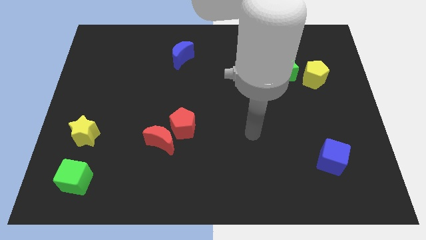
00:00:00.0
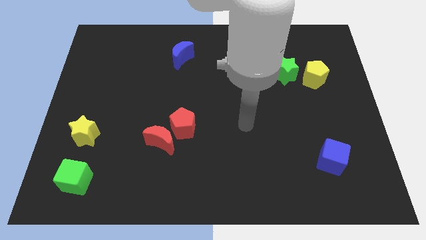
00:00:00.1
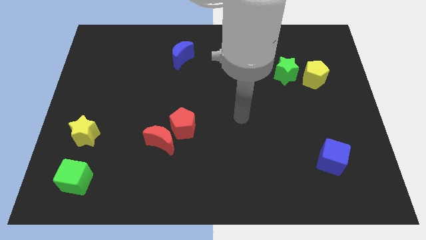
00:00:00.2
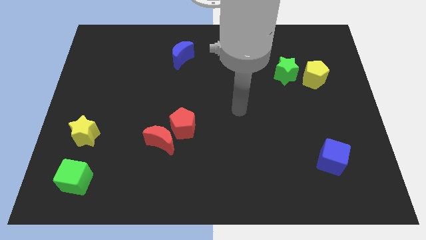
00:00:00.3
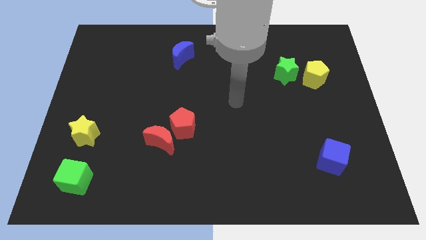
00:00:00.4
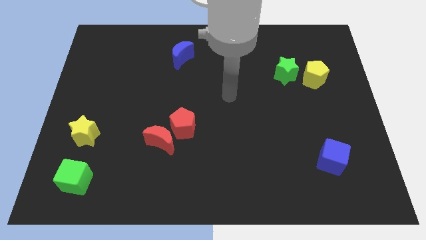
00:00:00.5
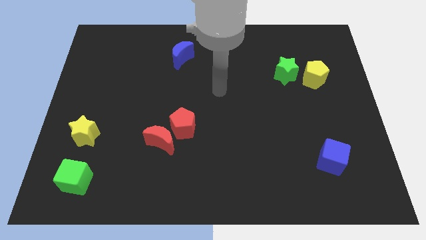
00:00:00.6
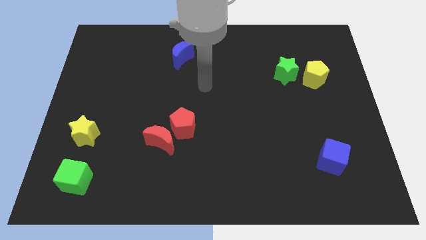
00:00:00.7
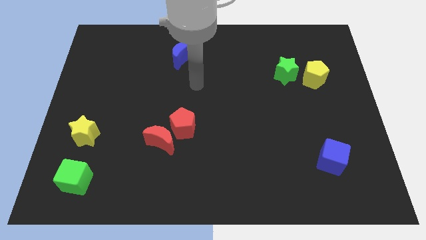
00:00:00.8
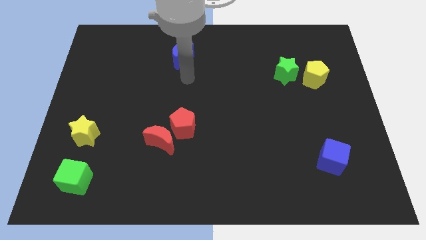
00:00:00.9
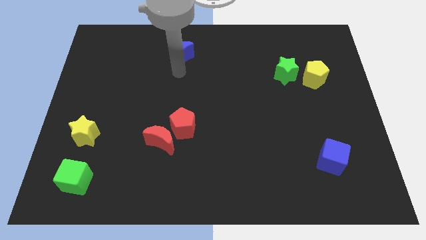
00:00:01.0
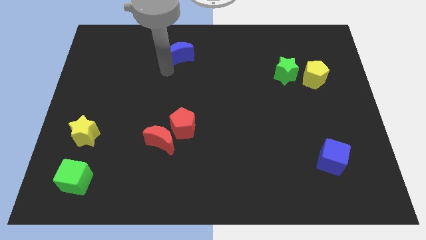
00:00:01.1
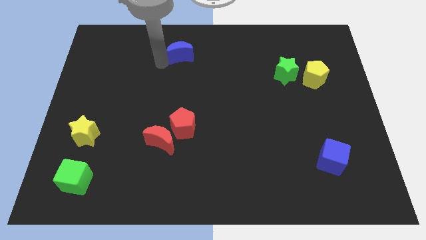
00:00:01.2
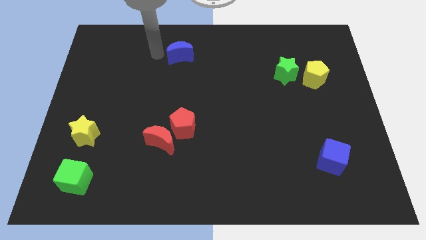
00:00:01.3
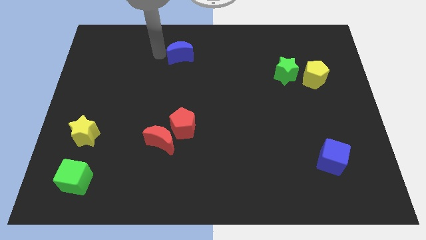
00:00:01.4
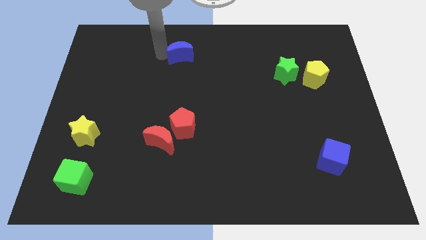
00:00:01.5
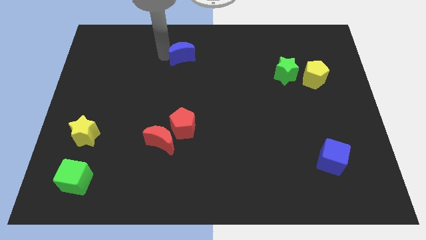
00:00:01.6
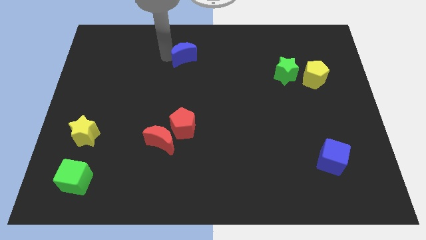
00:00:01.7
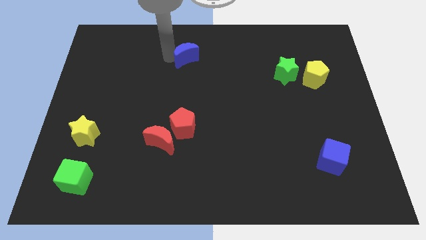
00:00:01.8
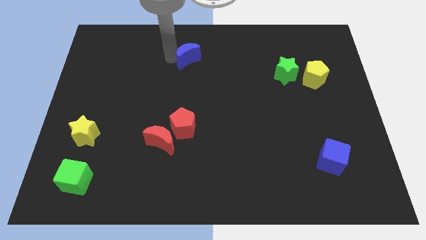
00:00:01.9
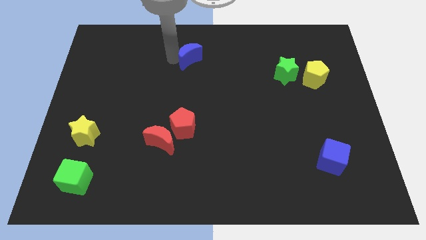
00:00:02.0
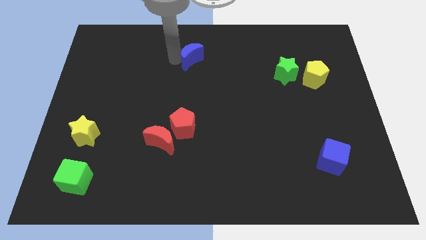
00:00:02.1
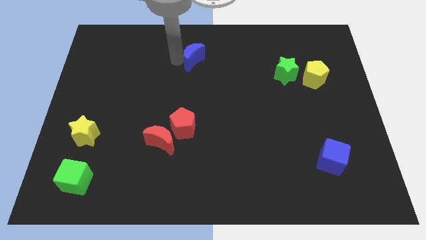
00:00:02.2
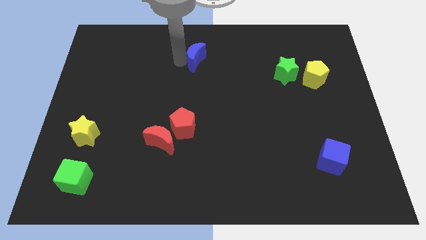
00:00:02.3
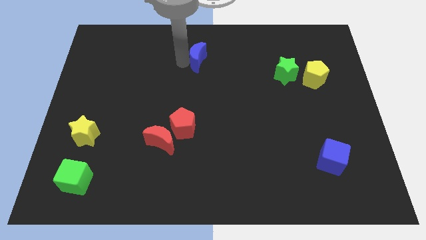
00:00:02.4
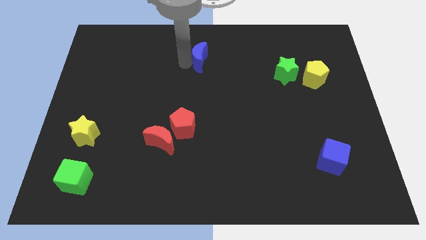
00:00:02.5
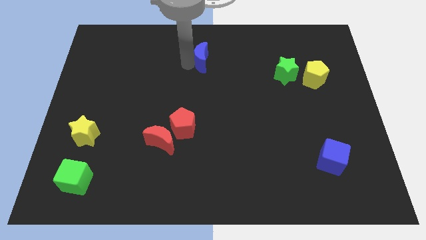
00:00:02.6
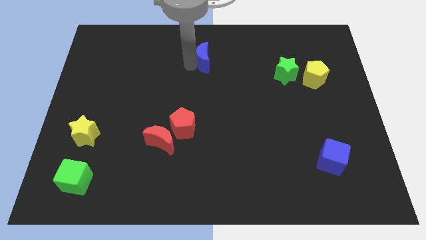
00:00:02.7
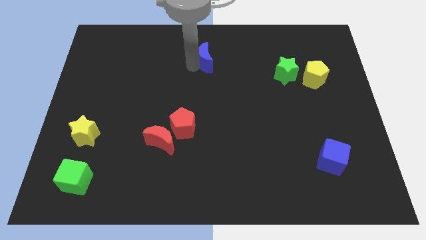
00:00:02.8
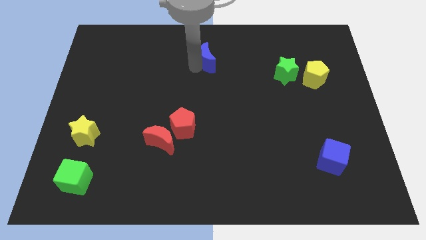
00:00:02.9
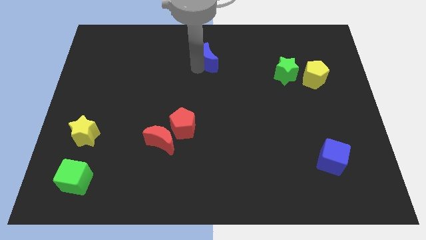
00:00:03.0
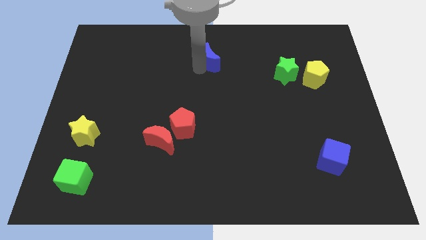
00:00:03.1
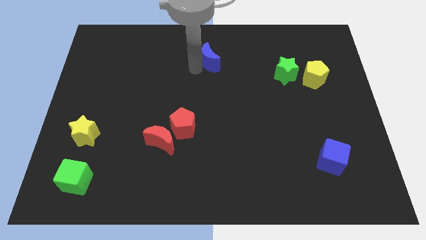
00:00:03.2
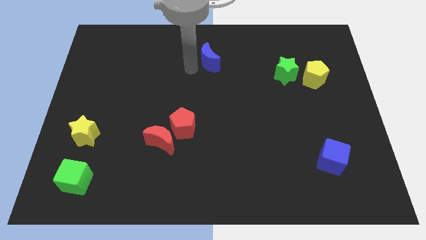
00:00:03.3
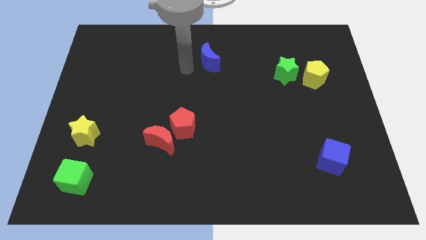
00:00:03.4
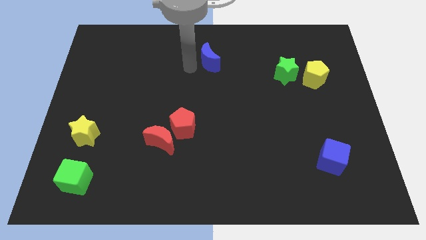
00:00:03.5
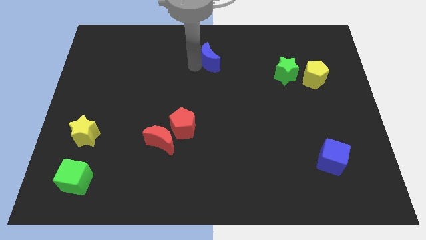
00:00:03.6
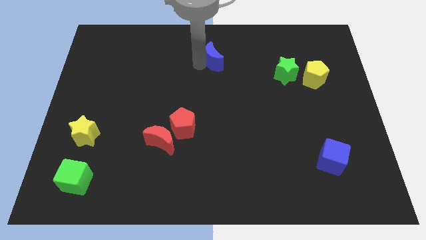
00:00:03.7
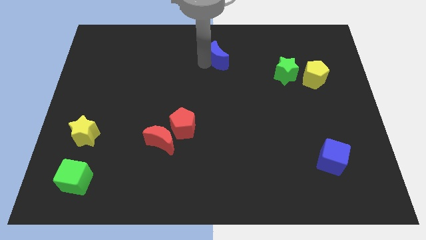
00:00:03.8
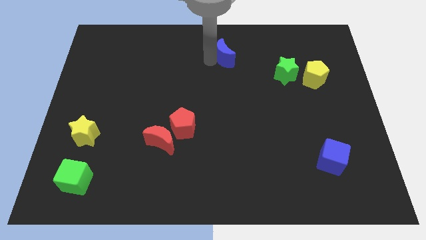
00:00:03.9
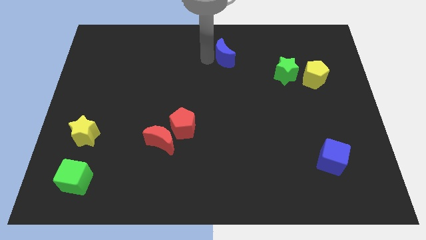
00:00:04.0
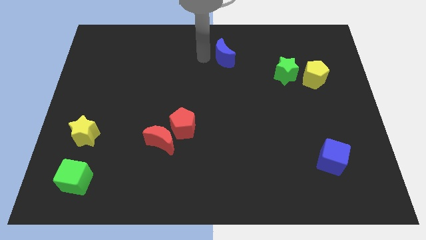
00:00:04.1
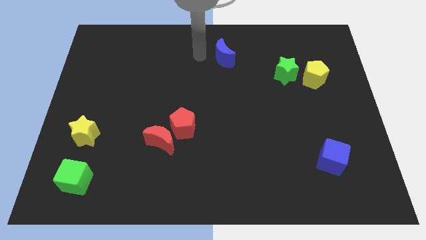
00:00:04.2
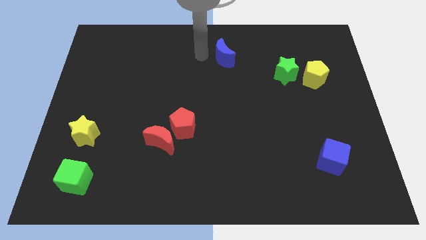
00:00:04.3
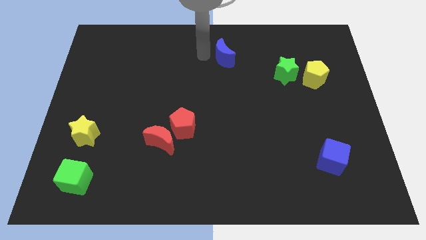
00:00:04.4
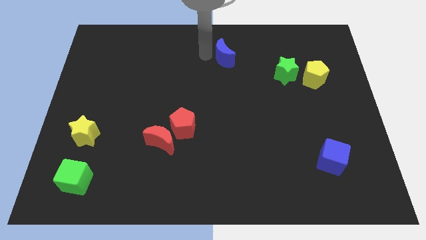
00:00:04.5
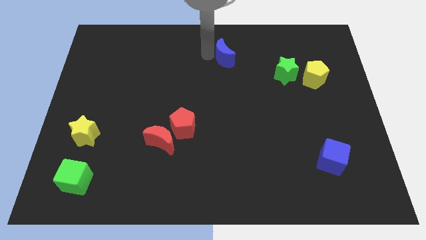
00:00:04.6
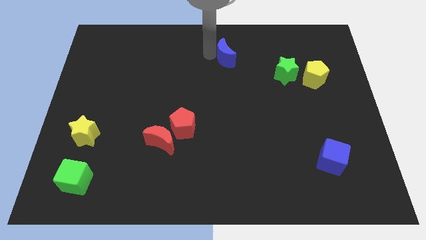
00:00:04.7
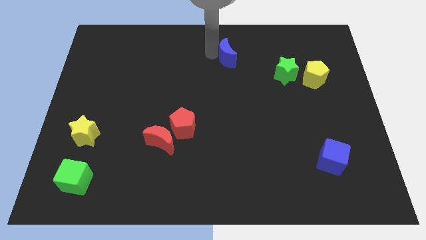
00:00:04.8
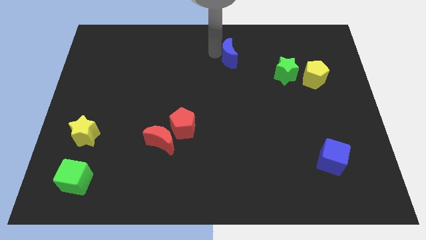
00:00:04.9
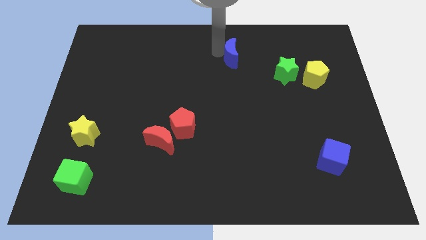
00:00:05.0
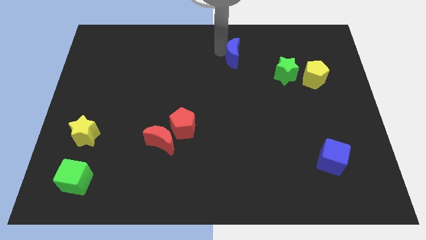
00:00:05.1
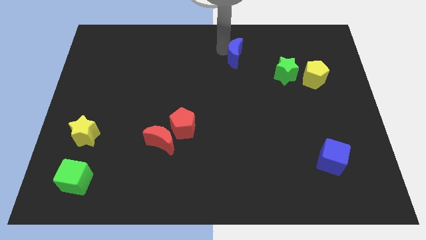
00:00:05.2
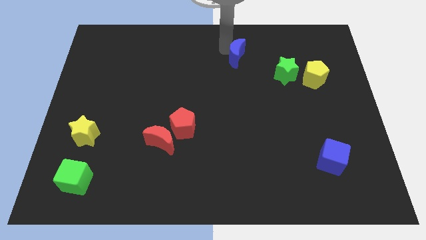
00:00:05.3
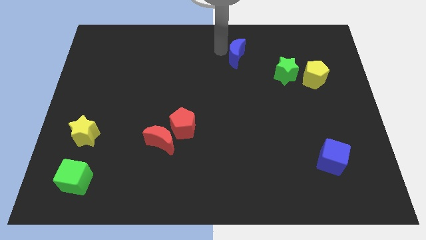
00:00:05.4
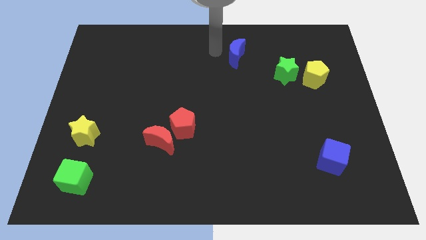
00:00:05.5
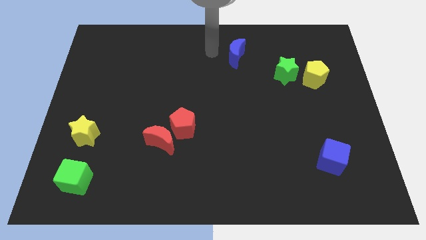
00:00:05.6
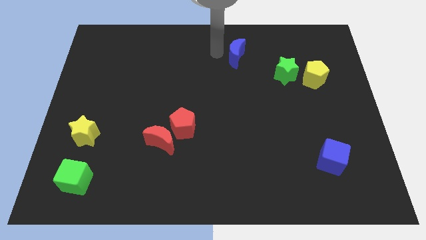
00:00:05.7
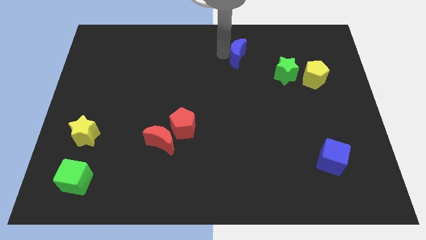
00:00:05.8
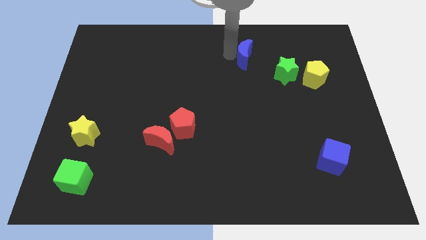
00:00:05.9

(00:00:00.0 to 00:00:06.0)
move the blue moon diagonally up and to the left of the green star

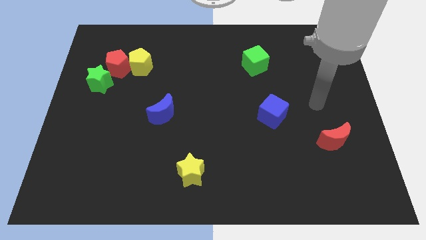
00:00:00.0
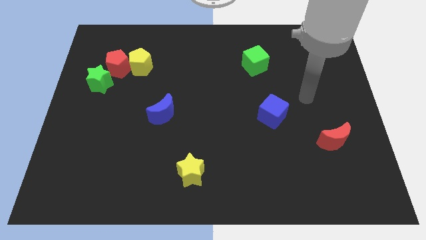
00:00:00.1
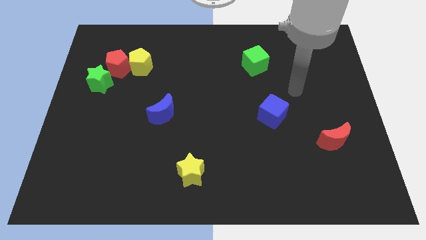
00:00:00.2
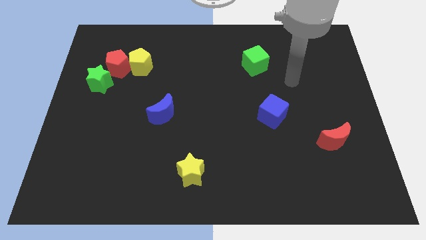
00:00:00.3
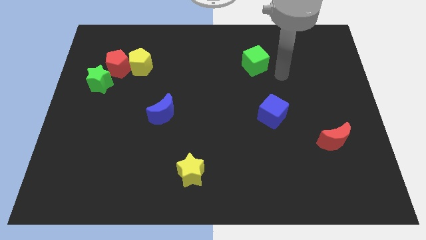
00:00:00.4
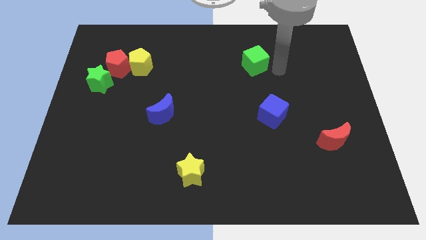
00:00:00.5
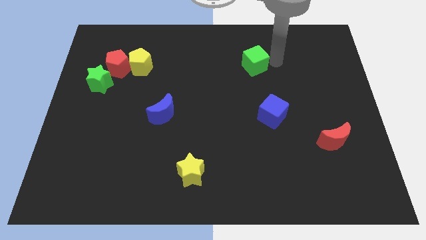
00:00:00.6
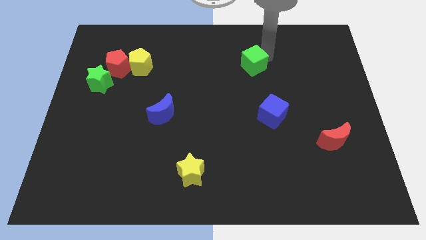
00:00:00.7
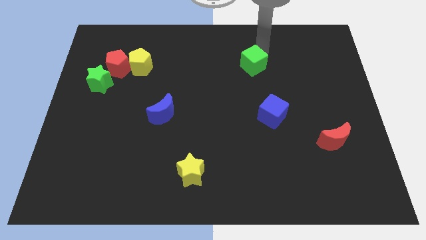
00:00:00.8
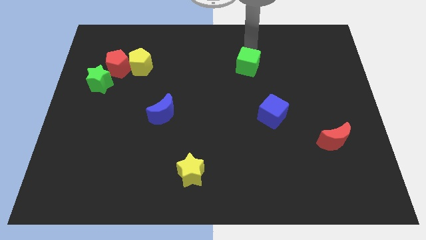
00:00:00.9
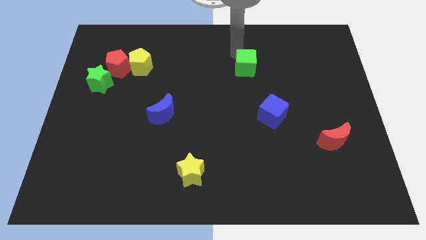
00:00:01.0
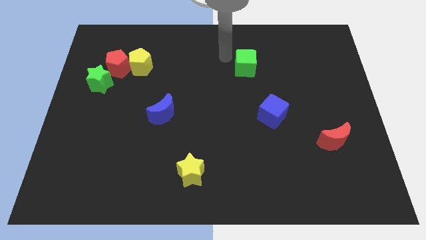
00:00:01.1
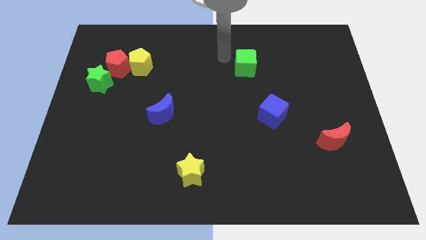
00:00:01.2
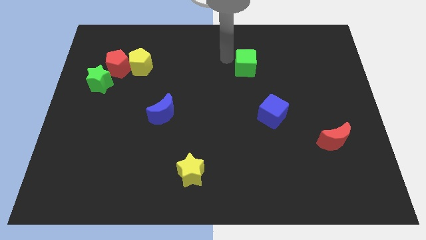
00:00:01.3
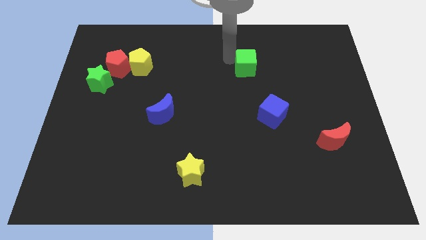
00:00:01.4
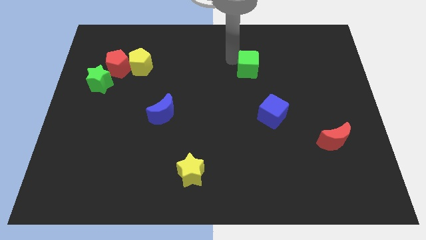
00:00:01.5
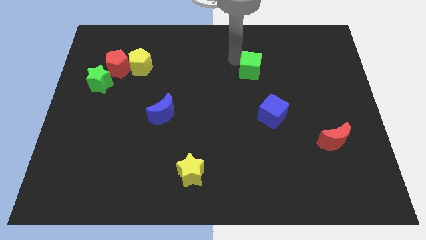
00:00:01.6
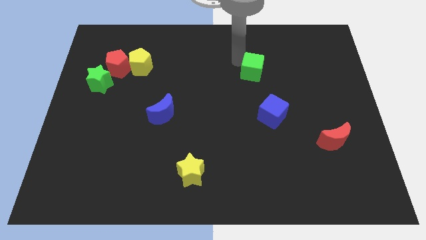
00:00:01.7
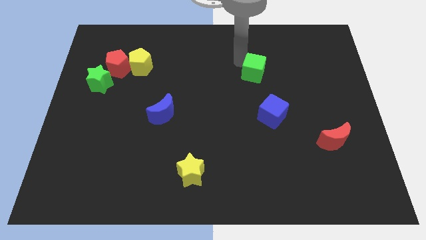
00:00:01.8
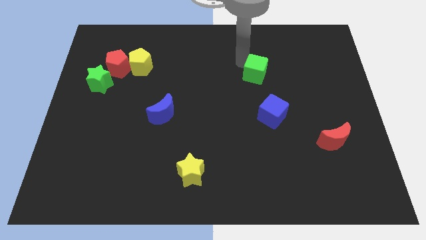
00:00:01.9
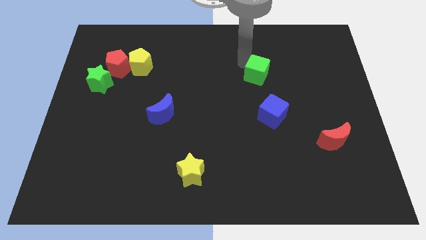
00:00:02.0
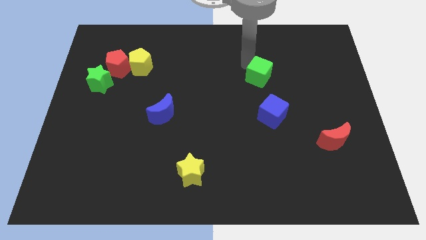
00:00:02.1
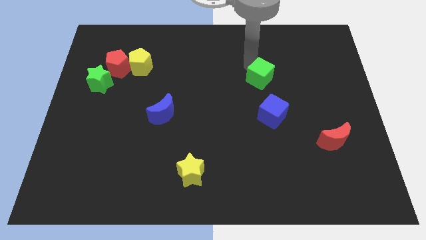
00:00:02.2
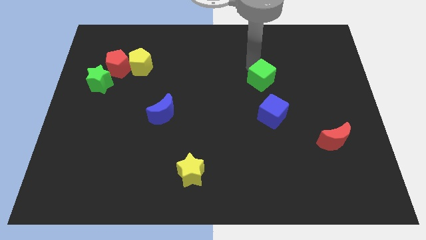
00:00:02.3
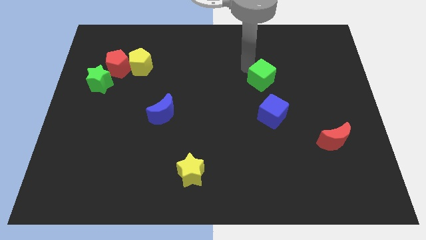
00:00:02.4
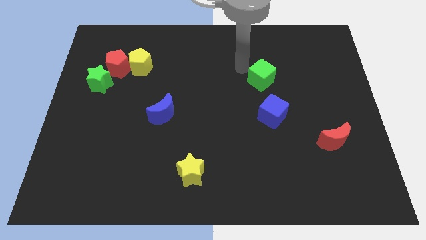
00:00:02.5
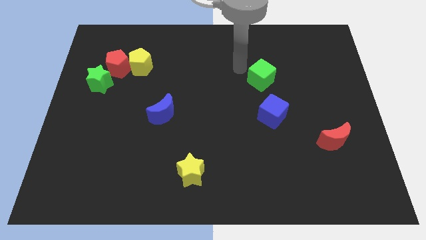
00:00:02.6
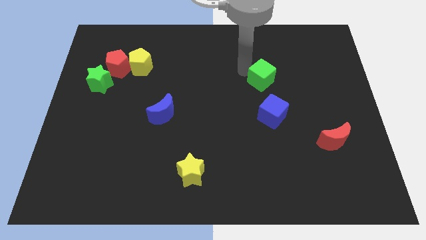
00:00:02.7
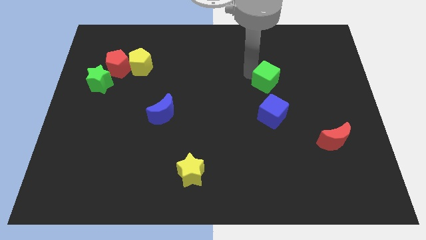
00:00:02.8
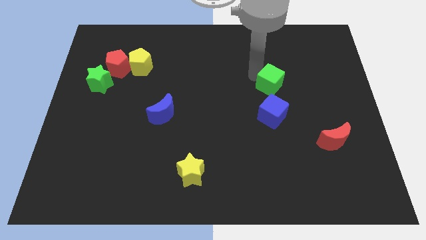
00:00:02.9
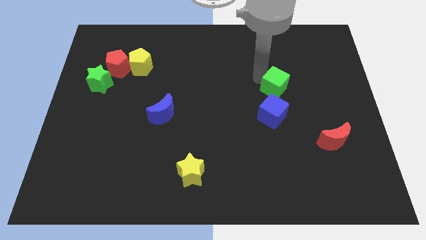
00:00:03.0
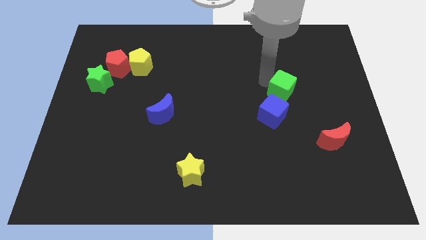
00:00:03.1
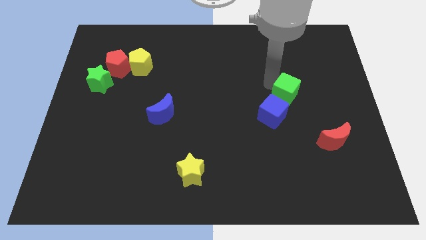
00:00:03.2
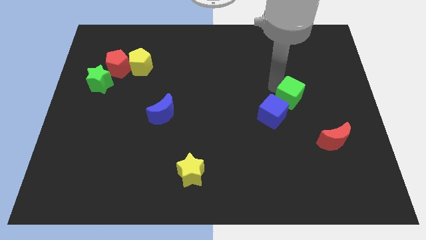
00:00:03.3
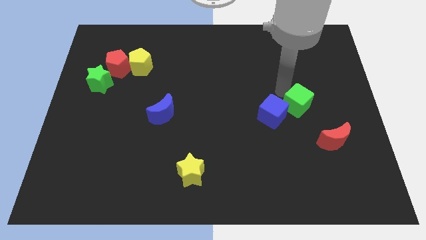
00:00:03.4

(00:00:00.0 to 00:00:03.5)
put the green cube just right of the blue cube
